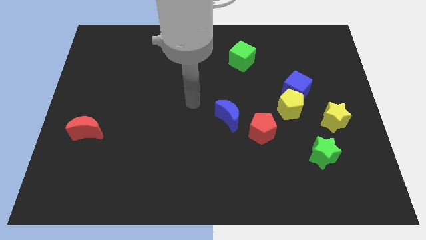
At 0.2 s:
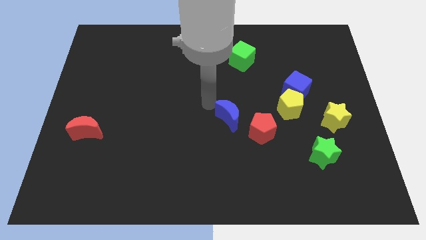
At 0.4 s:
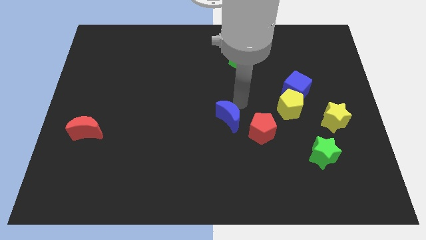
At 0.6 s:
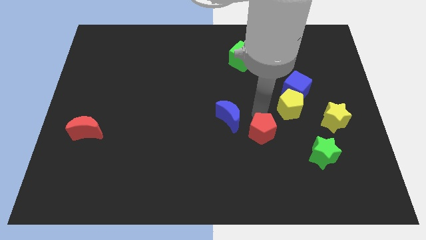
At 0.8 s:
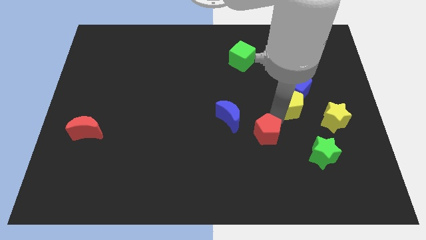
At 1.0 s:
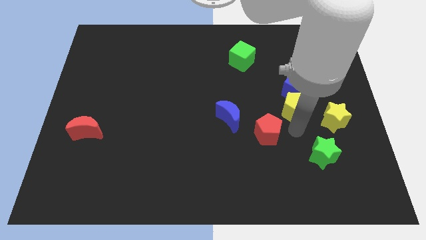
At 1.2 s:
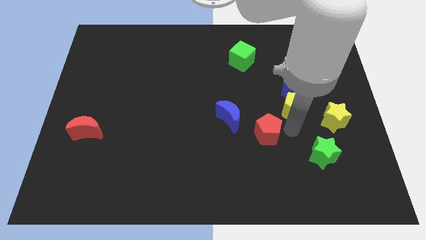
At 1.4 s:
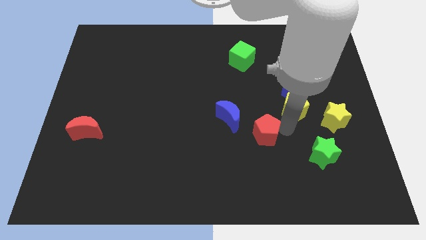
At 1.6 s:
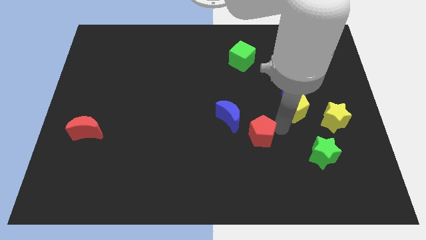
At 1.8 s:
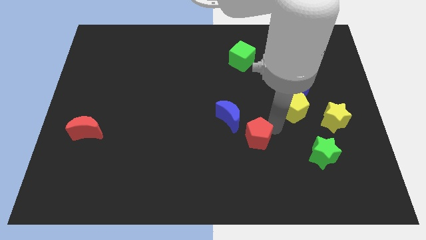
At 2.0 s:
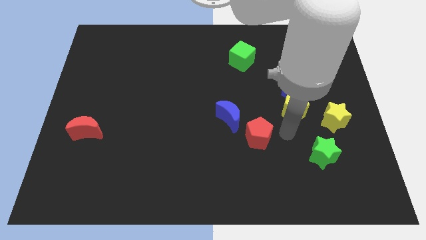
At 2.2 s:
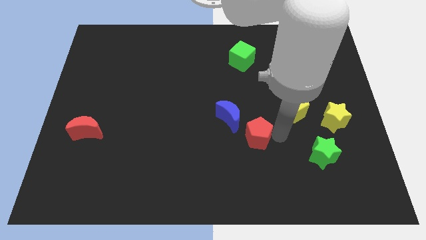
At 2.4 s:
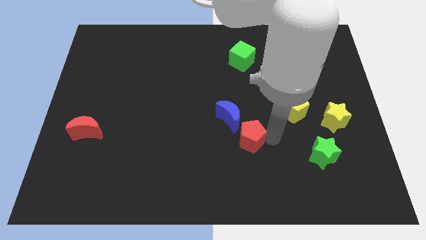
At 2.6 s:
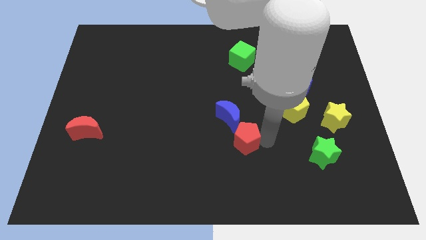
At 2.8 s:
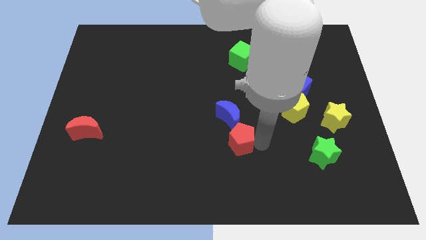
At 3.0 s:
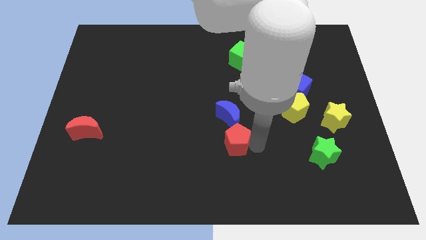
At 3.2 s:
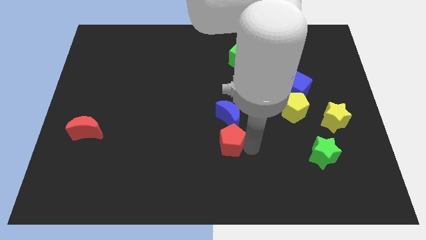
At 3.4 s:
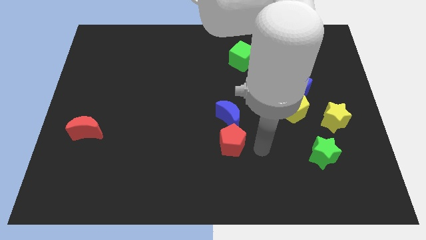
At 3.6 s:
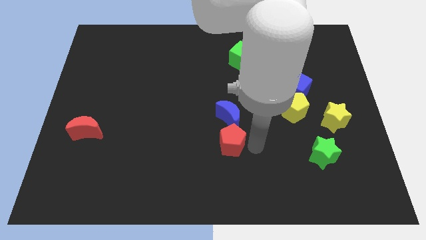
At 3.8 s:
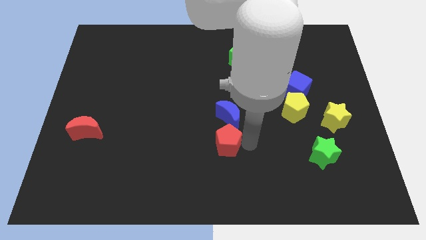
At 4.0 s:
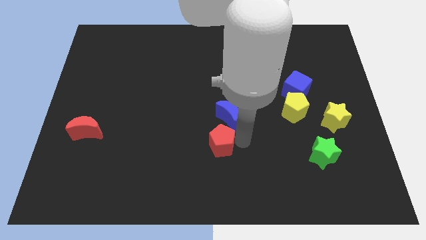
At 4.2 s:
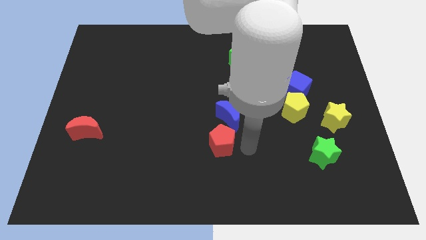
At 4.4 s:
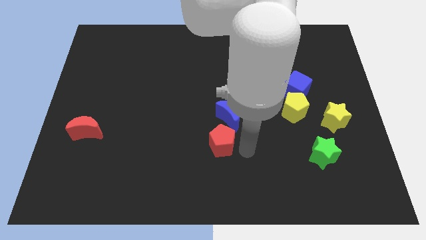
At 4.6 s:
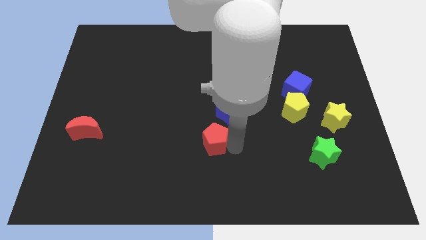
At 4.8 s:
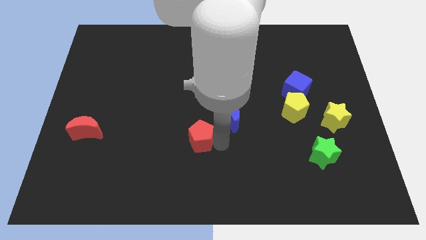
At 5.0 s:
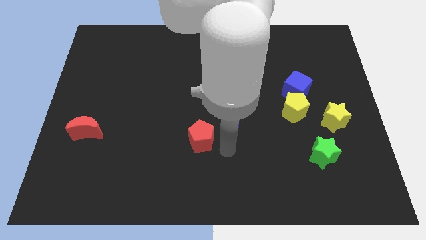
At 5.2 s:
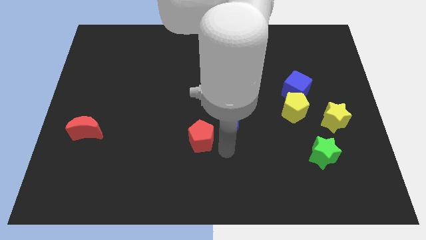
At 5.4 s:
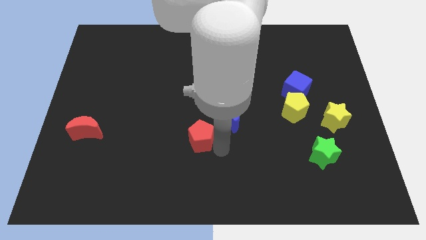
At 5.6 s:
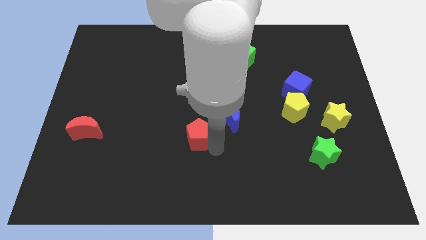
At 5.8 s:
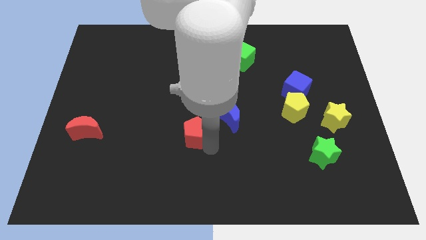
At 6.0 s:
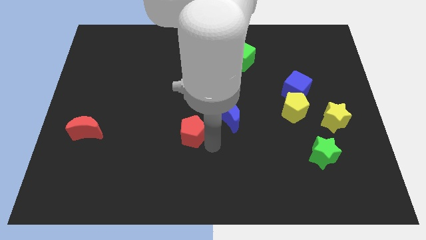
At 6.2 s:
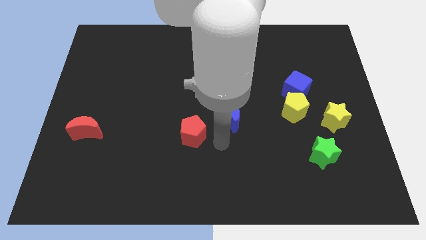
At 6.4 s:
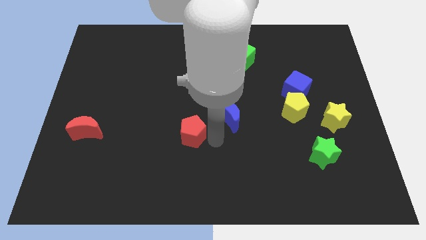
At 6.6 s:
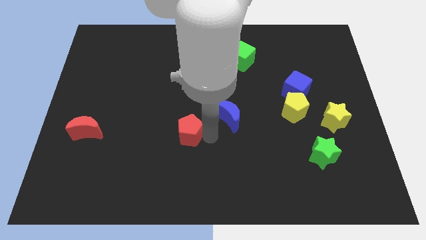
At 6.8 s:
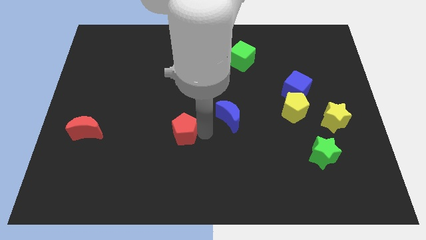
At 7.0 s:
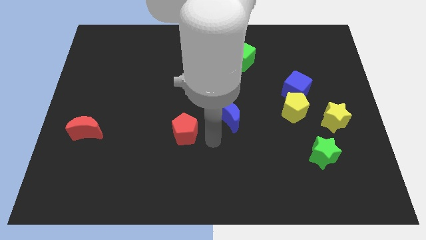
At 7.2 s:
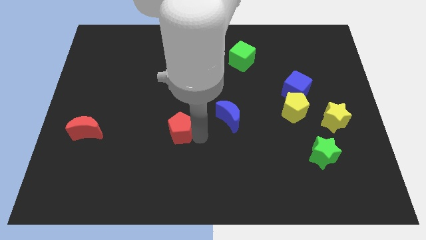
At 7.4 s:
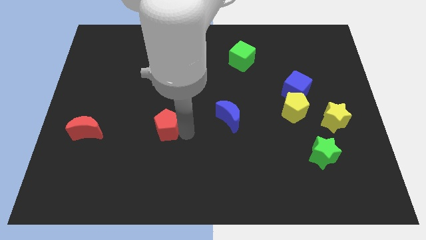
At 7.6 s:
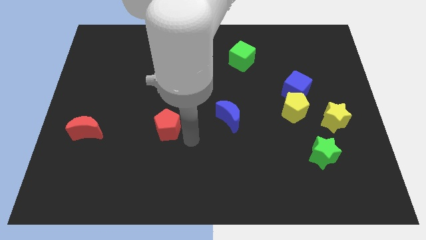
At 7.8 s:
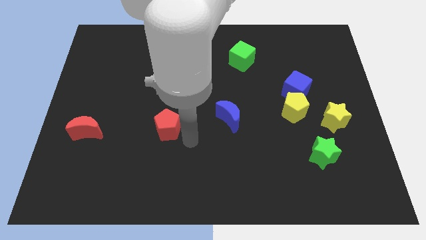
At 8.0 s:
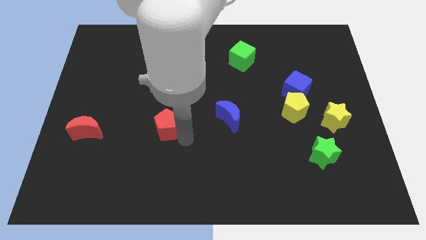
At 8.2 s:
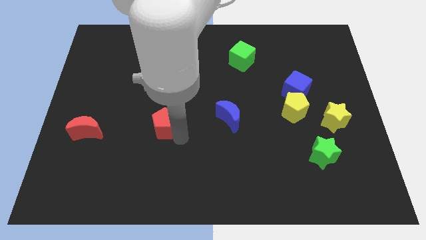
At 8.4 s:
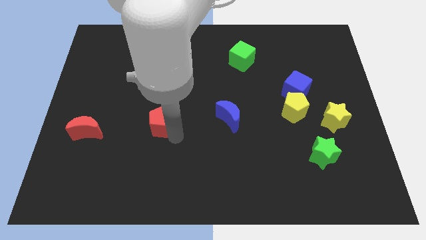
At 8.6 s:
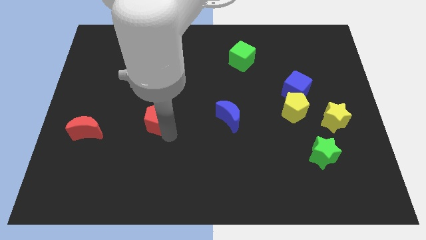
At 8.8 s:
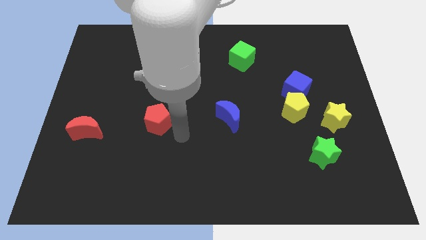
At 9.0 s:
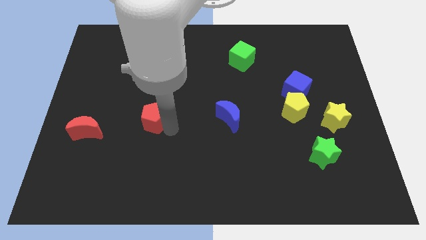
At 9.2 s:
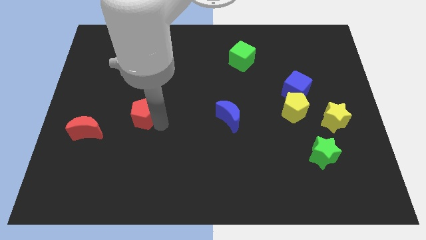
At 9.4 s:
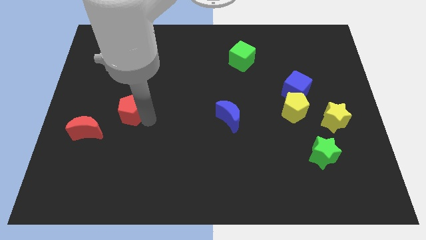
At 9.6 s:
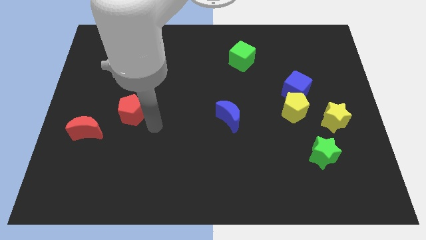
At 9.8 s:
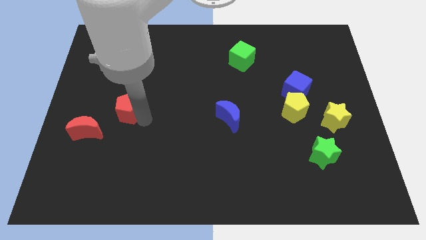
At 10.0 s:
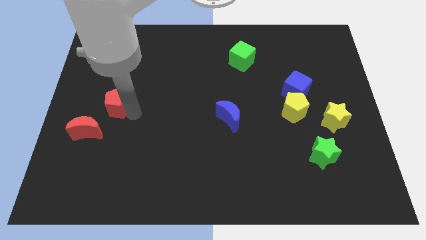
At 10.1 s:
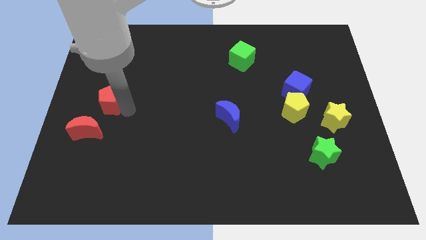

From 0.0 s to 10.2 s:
put the red pentagon to the top of the red moon

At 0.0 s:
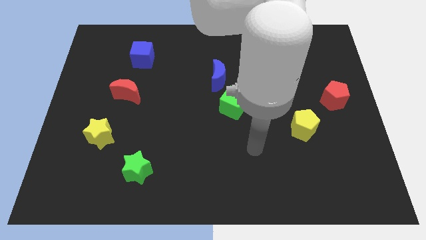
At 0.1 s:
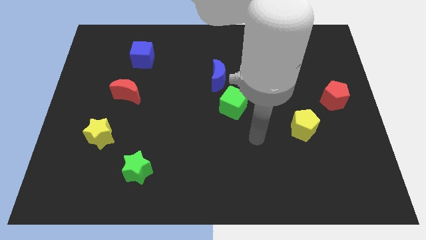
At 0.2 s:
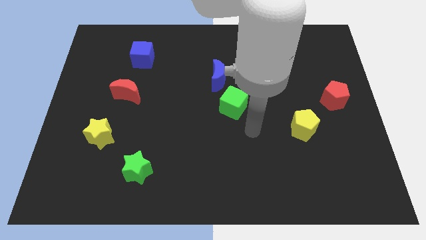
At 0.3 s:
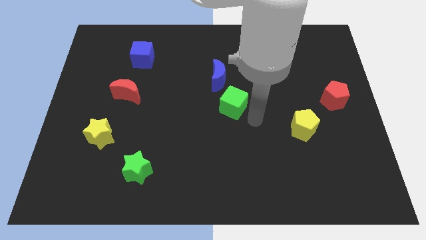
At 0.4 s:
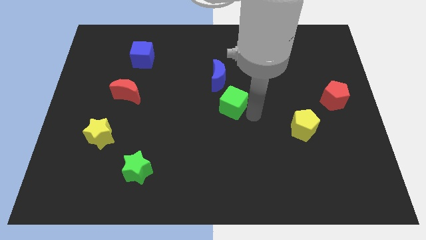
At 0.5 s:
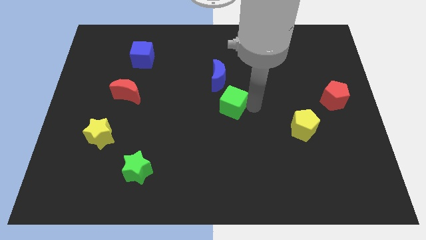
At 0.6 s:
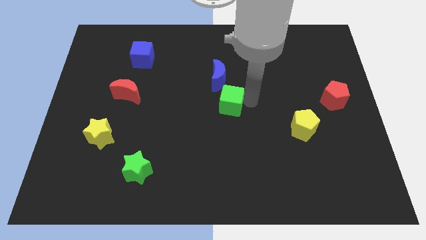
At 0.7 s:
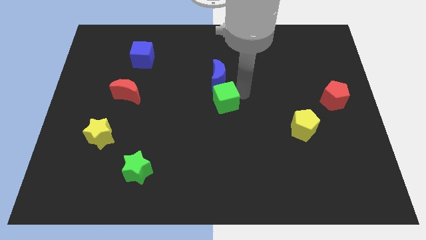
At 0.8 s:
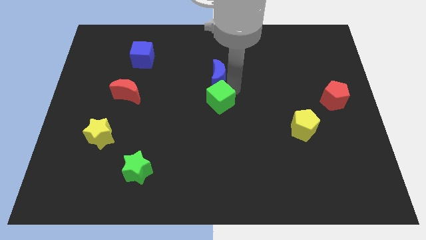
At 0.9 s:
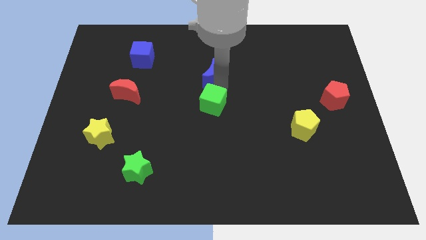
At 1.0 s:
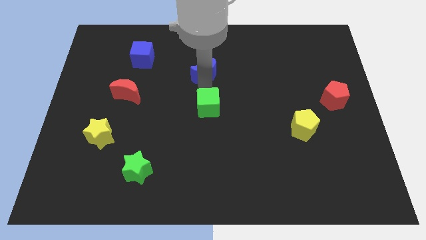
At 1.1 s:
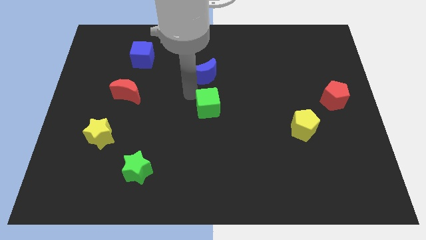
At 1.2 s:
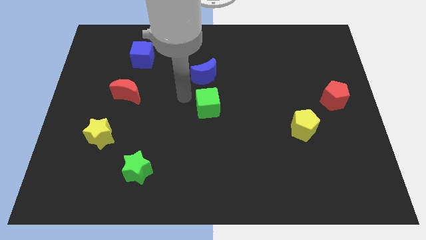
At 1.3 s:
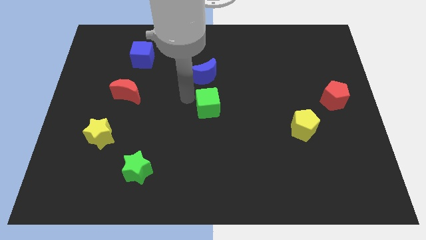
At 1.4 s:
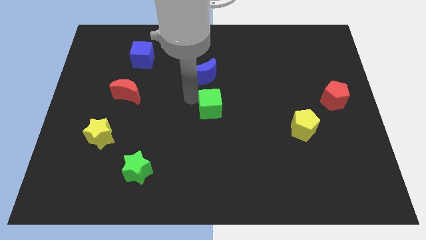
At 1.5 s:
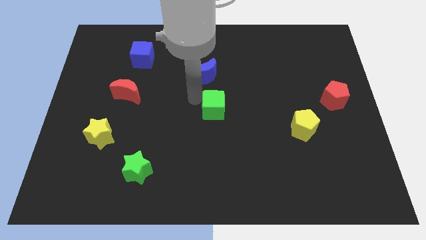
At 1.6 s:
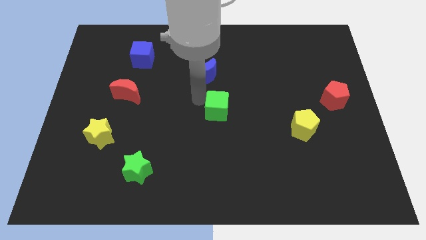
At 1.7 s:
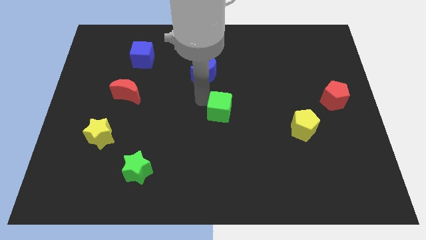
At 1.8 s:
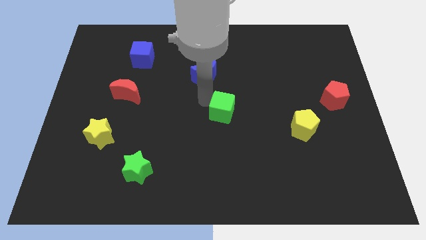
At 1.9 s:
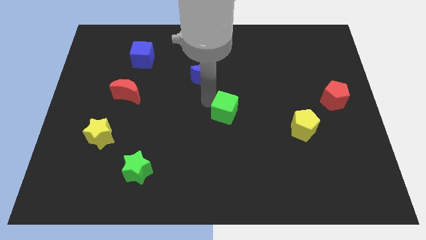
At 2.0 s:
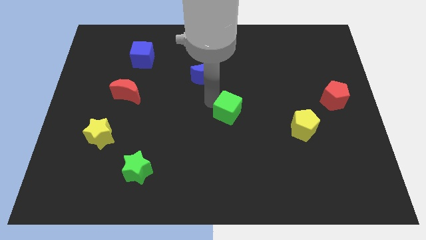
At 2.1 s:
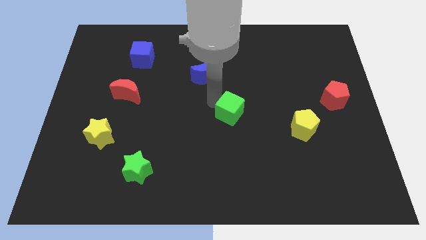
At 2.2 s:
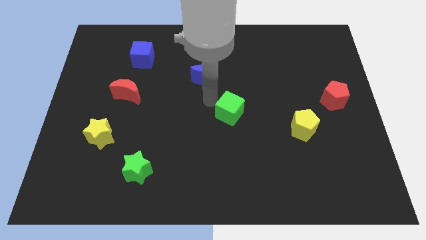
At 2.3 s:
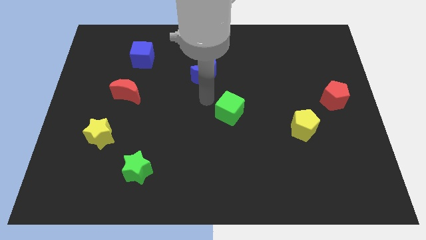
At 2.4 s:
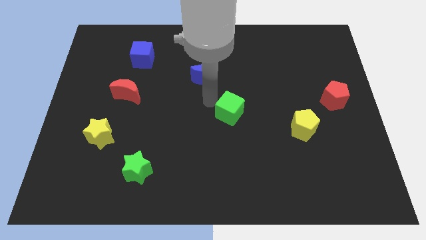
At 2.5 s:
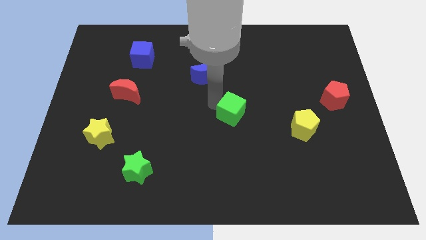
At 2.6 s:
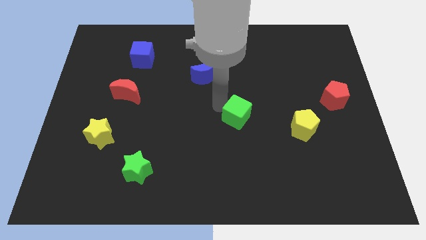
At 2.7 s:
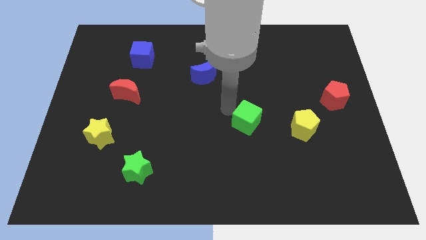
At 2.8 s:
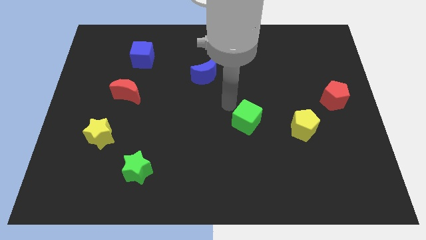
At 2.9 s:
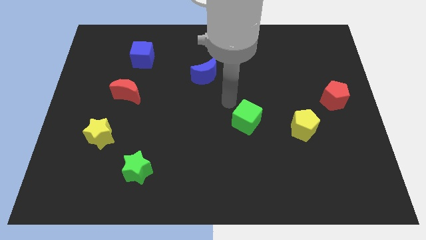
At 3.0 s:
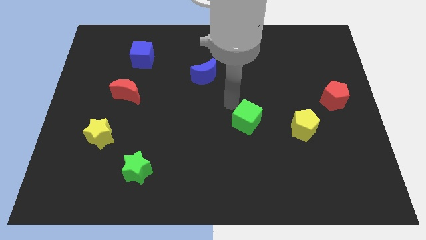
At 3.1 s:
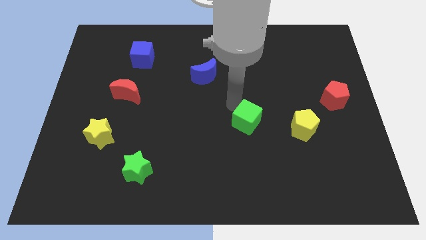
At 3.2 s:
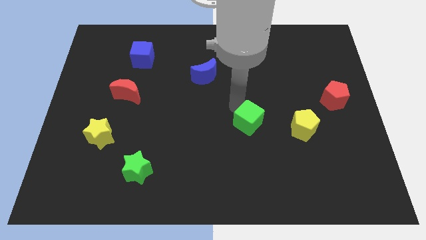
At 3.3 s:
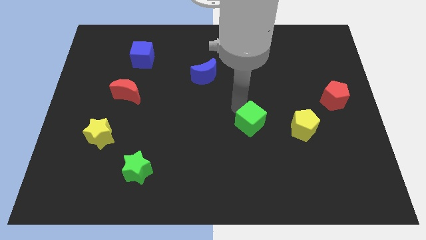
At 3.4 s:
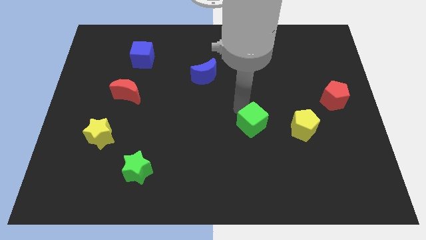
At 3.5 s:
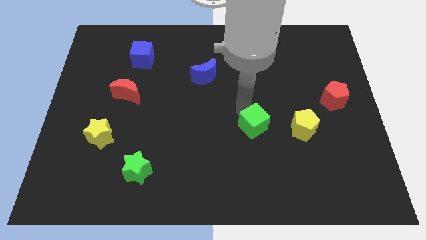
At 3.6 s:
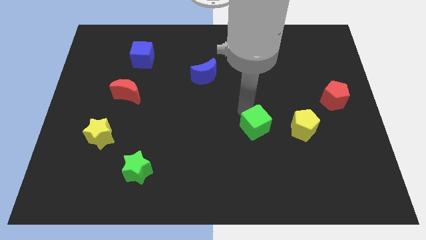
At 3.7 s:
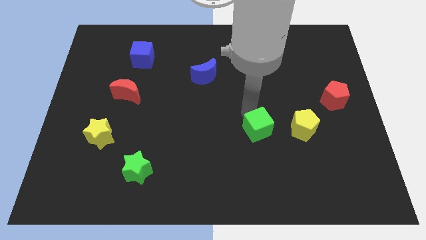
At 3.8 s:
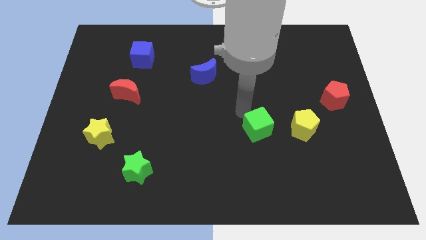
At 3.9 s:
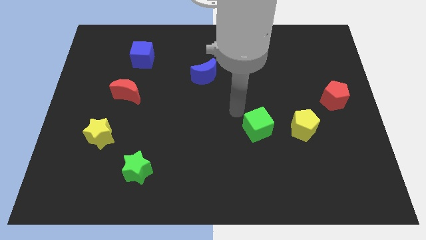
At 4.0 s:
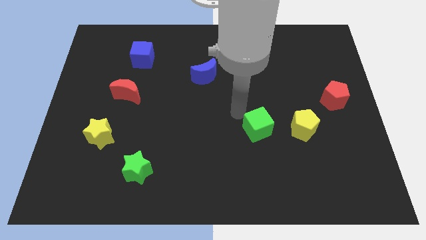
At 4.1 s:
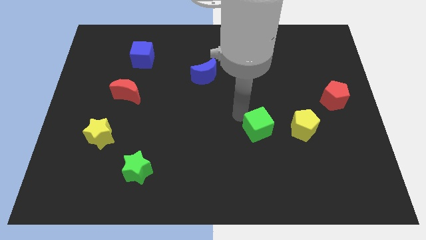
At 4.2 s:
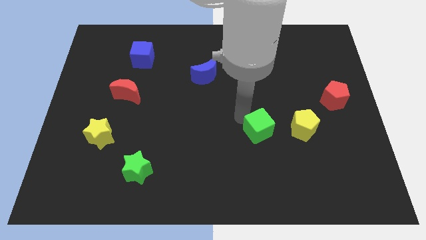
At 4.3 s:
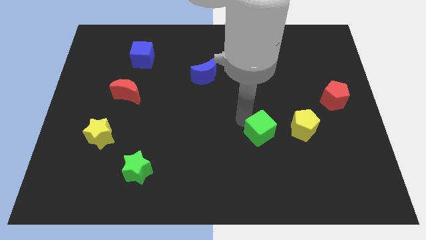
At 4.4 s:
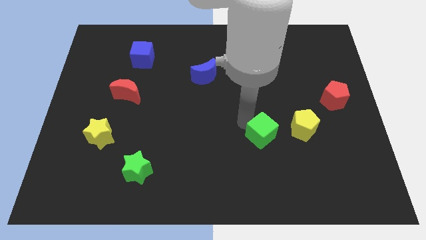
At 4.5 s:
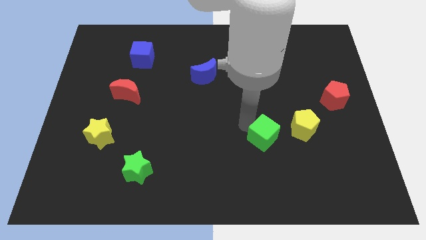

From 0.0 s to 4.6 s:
move the green cube to the bottom left side of the yellow pentagon
